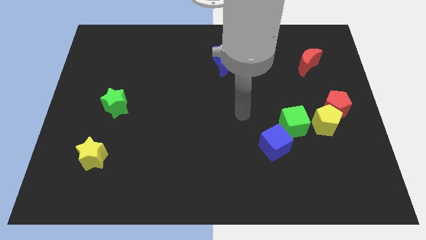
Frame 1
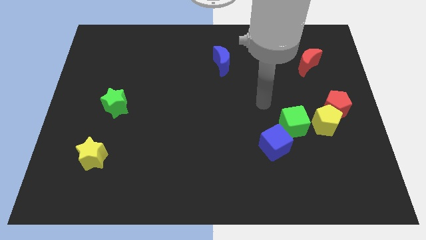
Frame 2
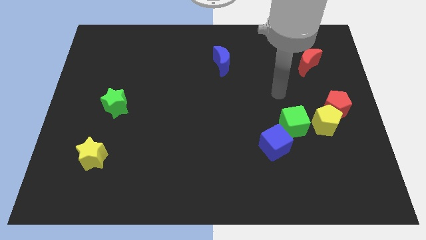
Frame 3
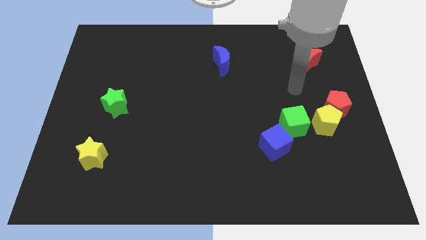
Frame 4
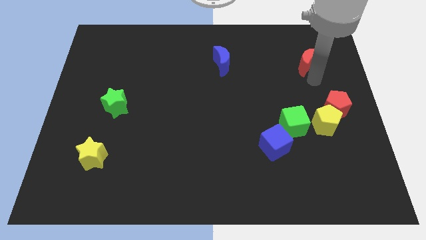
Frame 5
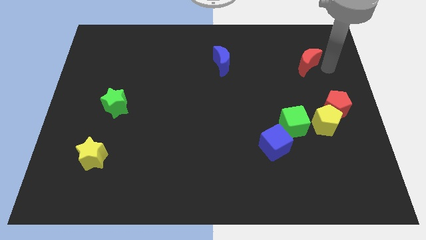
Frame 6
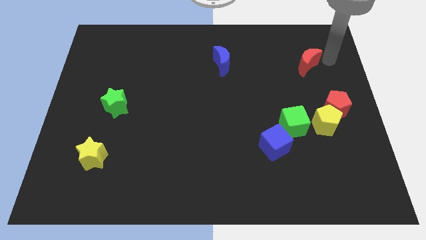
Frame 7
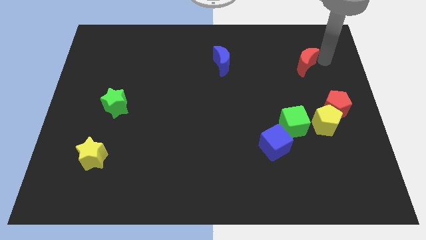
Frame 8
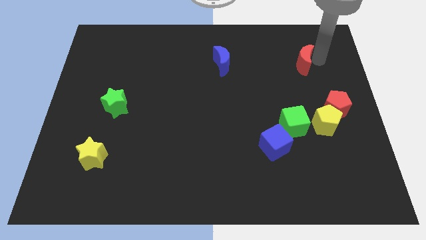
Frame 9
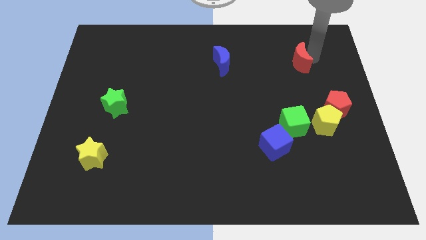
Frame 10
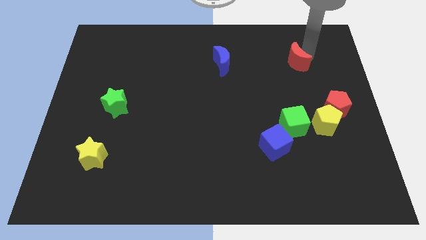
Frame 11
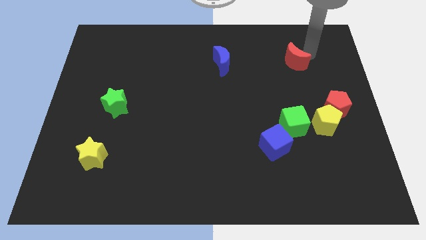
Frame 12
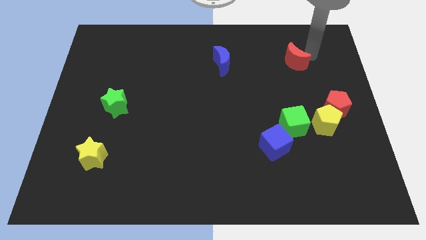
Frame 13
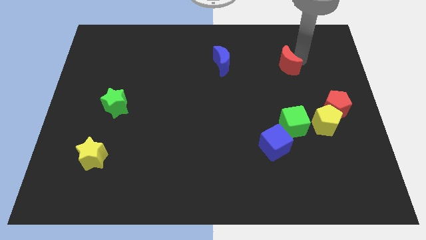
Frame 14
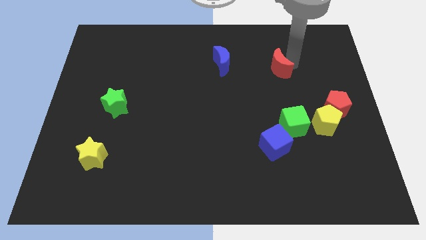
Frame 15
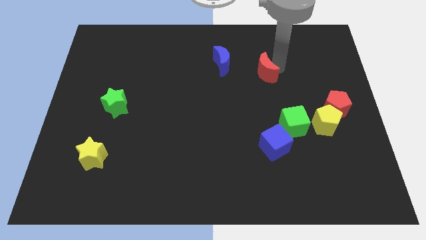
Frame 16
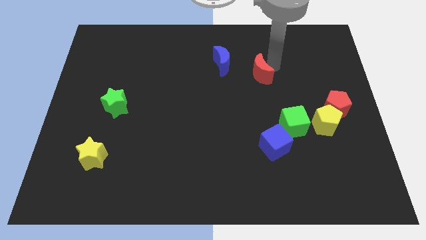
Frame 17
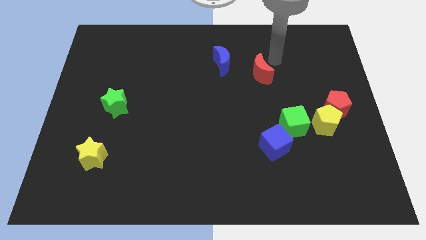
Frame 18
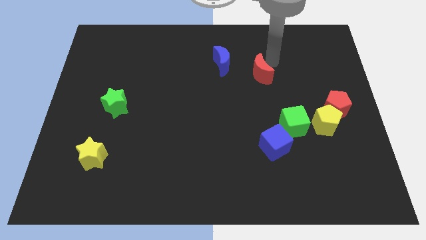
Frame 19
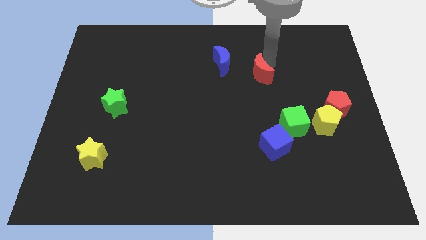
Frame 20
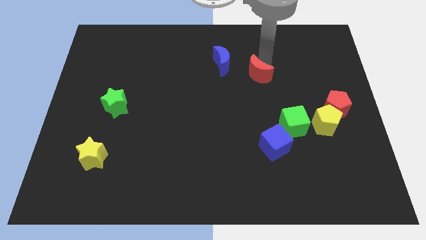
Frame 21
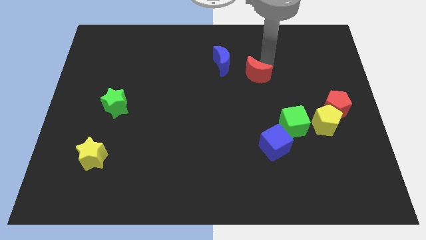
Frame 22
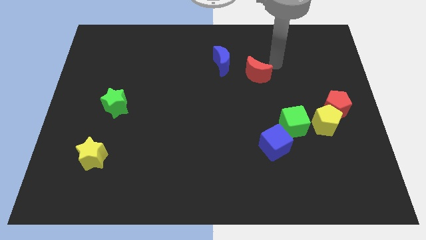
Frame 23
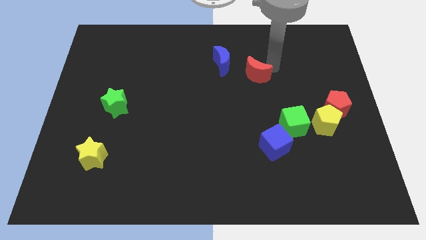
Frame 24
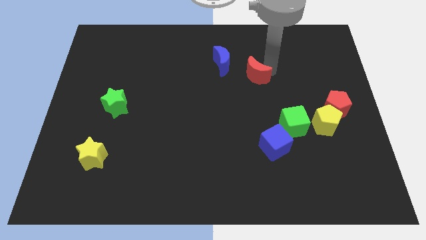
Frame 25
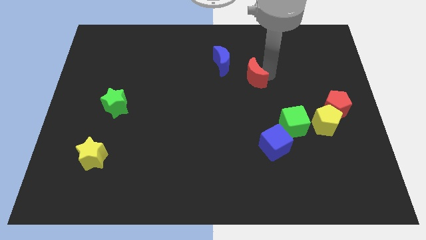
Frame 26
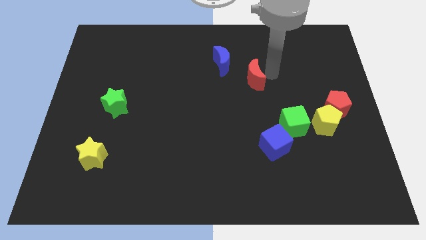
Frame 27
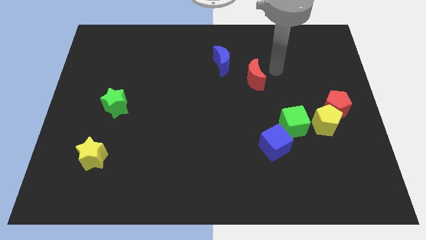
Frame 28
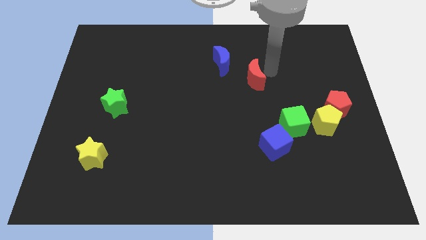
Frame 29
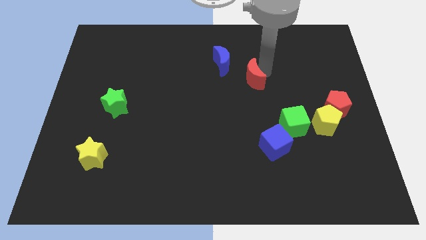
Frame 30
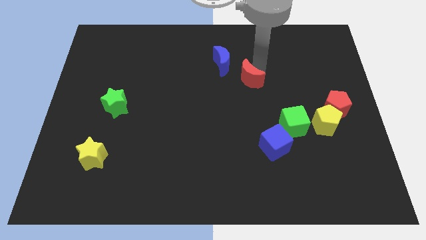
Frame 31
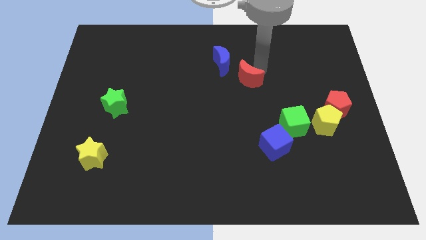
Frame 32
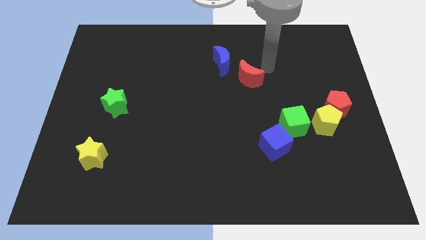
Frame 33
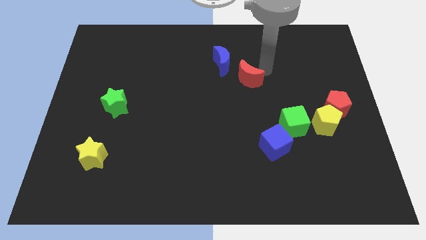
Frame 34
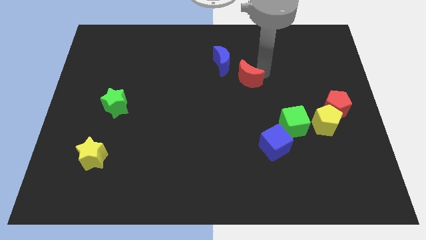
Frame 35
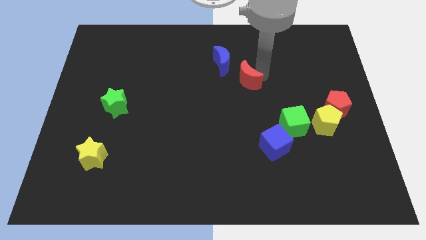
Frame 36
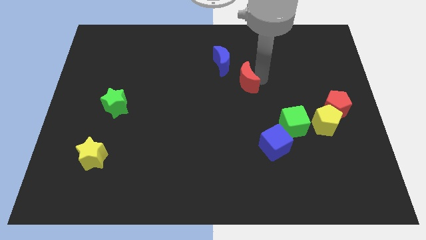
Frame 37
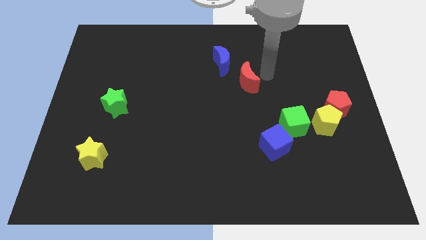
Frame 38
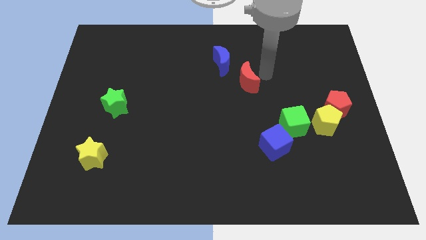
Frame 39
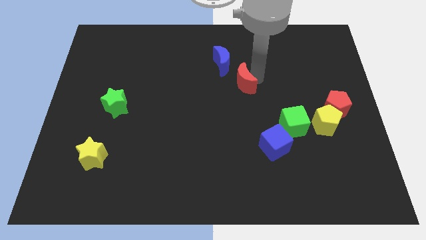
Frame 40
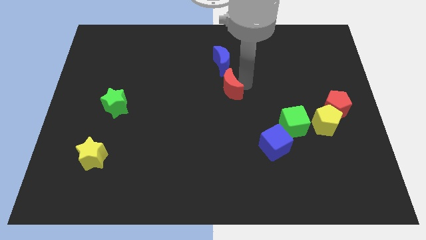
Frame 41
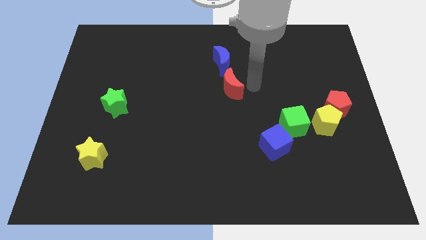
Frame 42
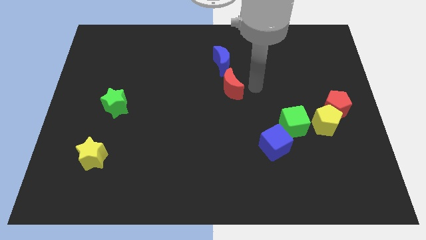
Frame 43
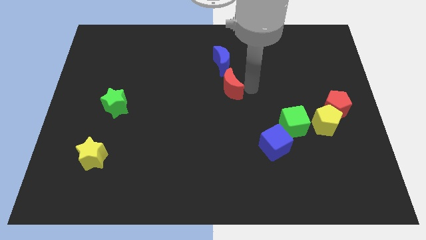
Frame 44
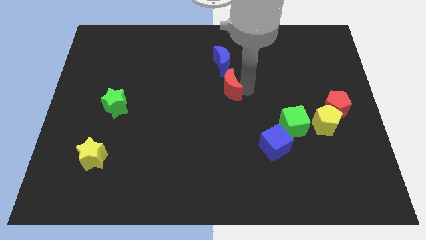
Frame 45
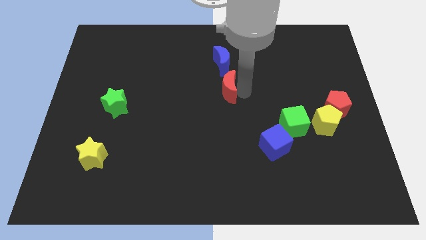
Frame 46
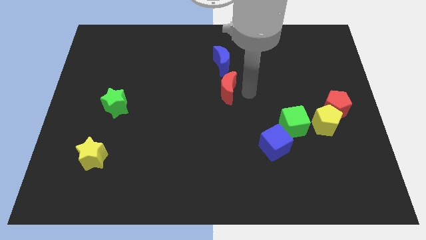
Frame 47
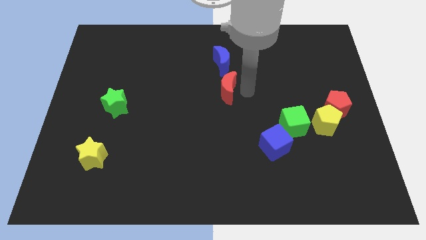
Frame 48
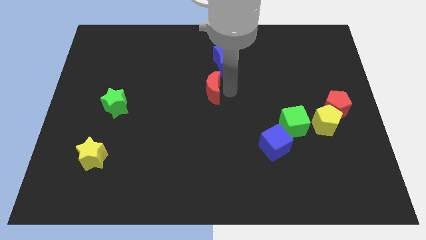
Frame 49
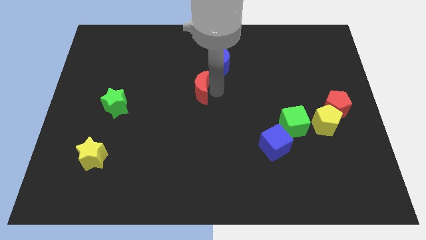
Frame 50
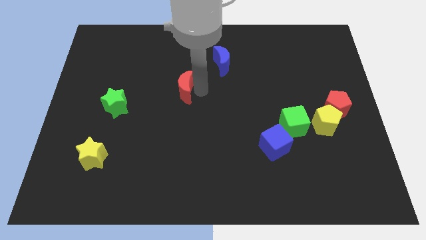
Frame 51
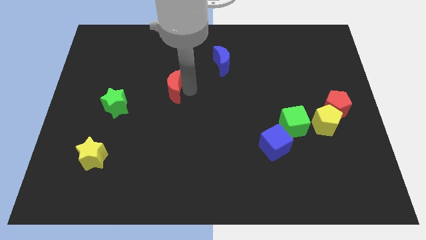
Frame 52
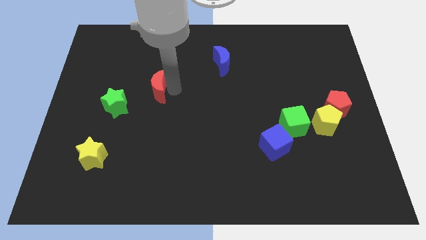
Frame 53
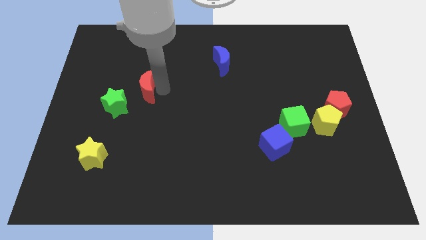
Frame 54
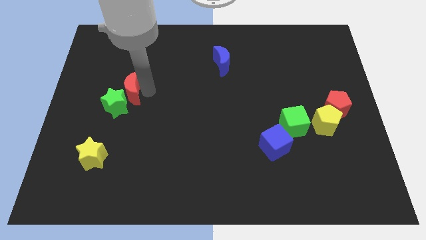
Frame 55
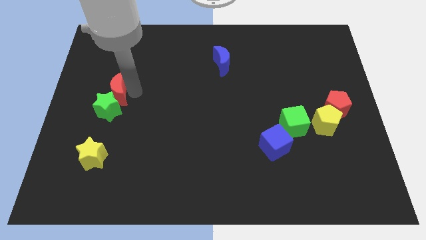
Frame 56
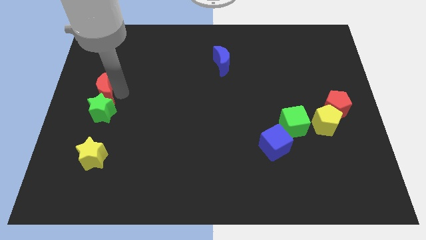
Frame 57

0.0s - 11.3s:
move the red moon to the left side

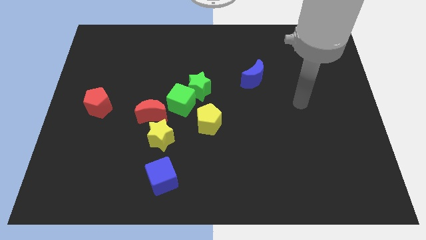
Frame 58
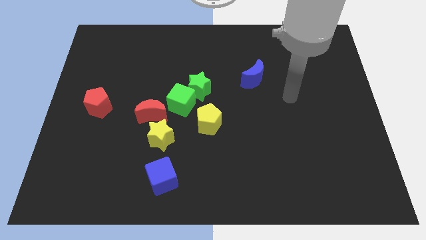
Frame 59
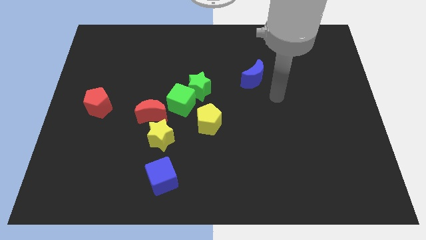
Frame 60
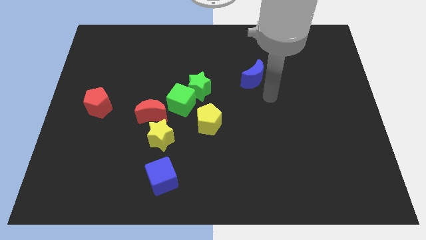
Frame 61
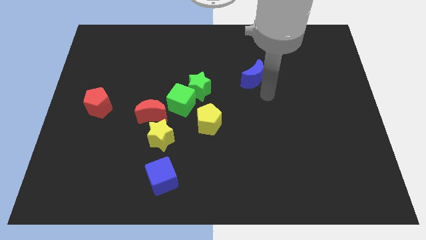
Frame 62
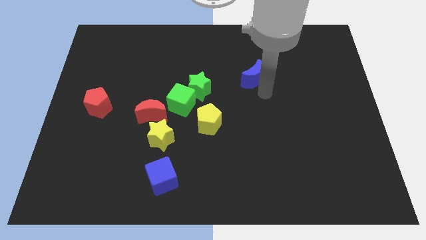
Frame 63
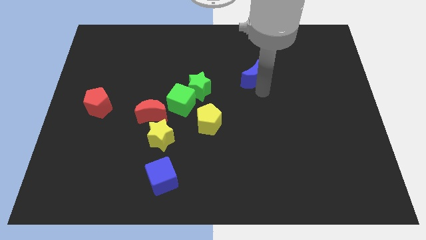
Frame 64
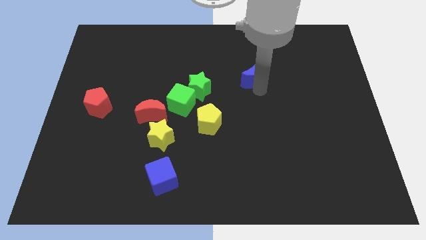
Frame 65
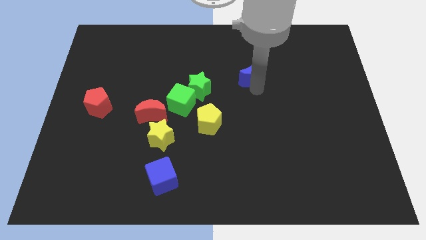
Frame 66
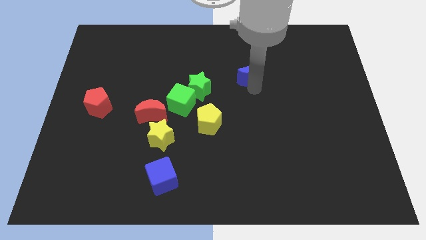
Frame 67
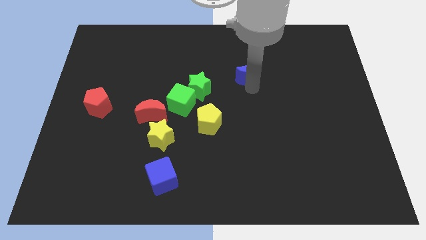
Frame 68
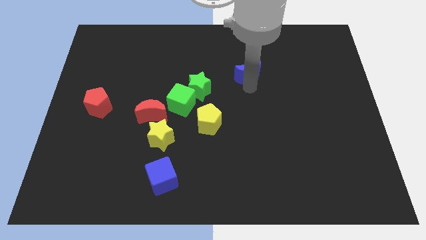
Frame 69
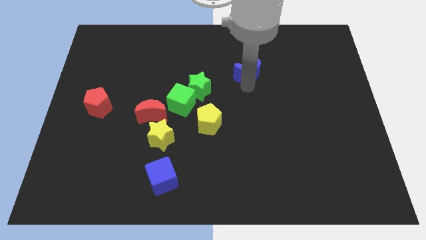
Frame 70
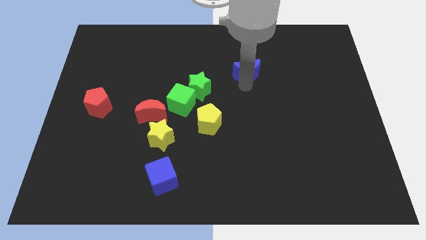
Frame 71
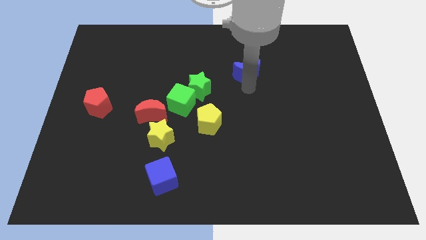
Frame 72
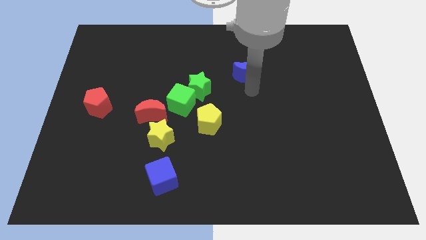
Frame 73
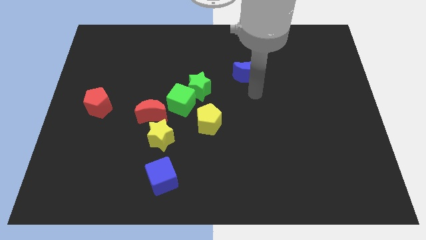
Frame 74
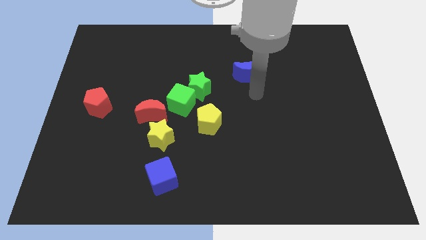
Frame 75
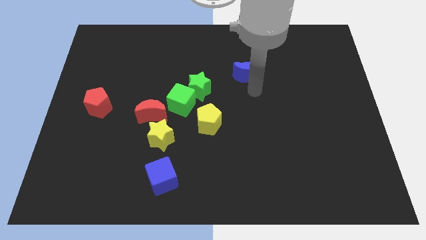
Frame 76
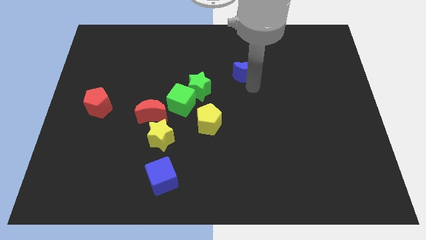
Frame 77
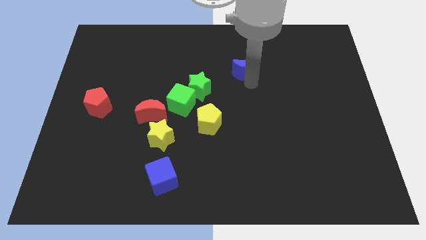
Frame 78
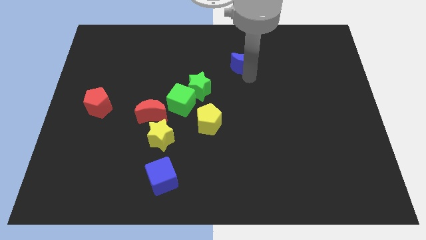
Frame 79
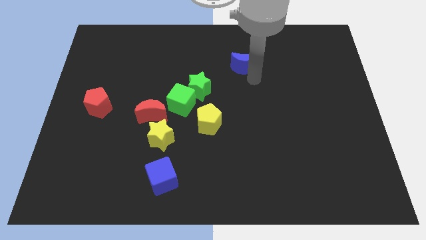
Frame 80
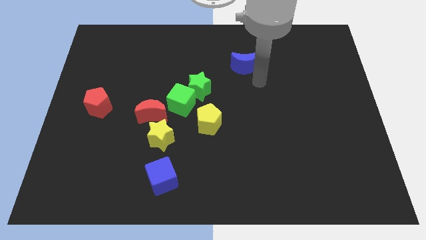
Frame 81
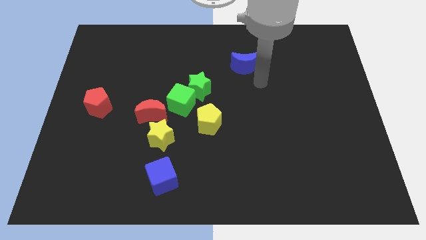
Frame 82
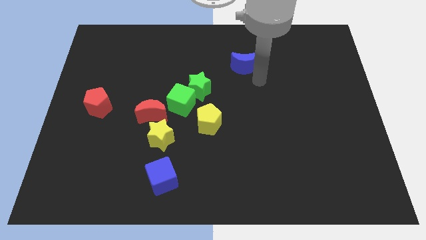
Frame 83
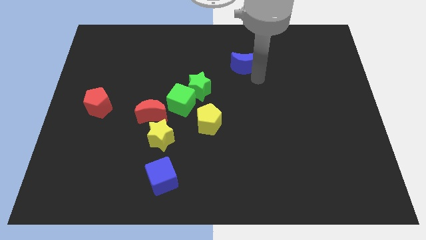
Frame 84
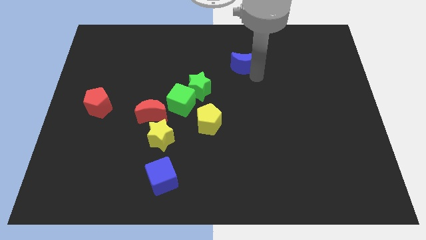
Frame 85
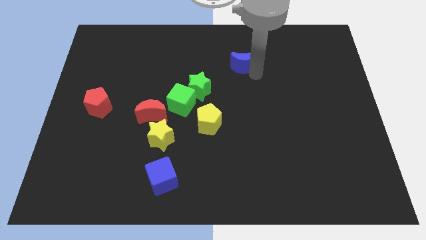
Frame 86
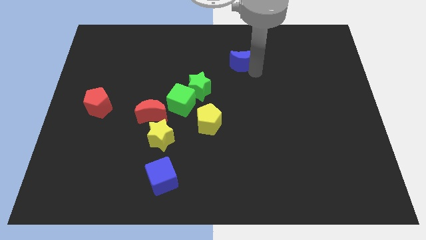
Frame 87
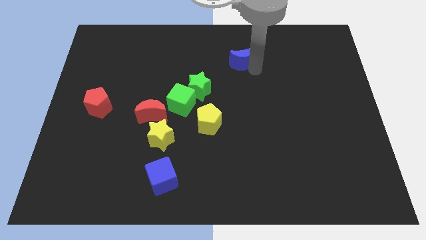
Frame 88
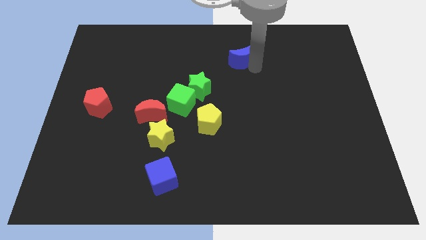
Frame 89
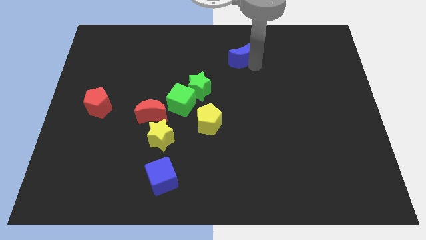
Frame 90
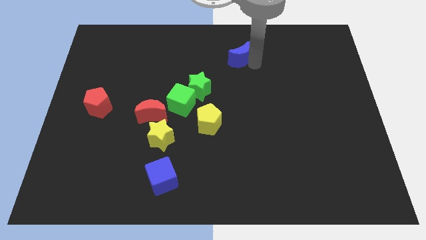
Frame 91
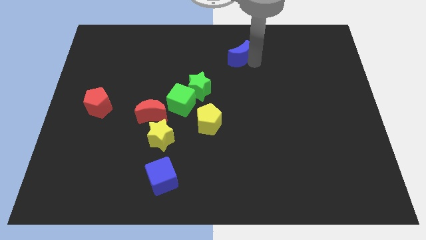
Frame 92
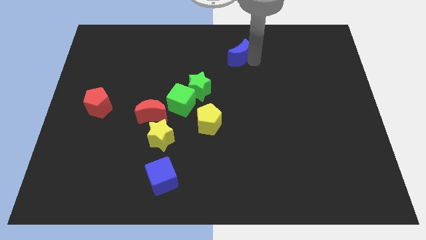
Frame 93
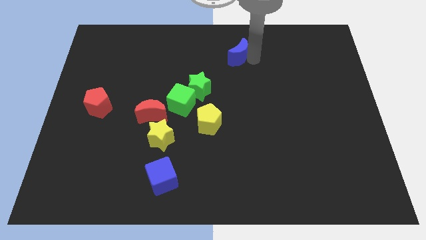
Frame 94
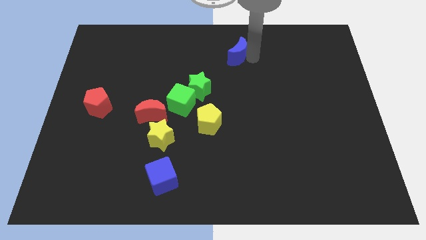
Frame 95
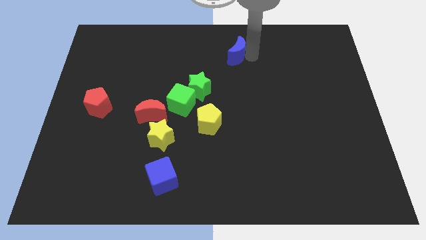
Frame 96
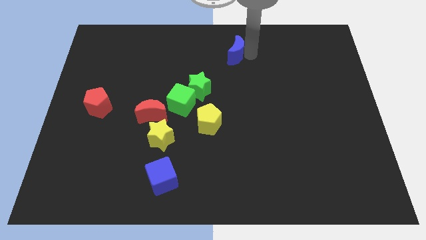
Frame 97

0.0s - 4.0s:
push the blue moon to the towards your base
